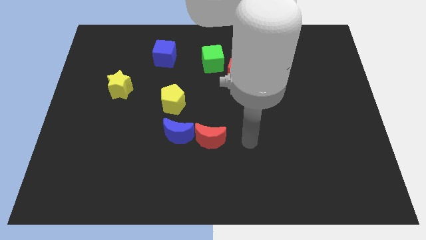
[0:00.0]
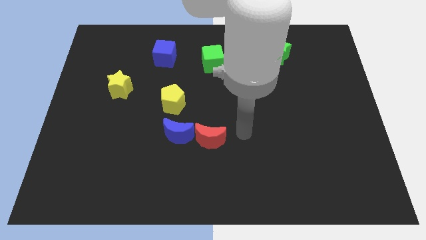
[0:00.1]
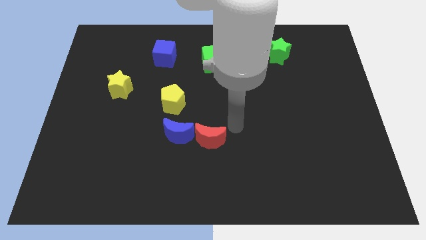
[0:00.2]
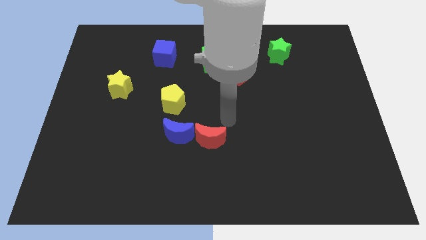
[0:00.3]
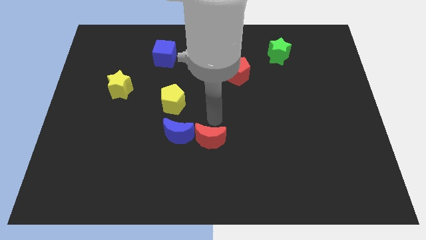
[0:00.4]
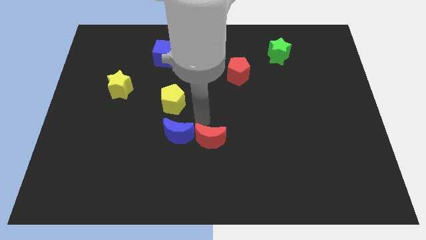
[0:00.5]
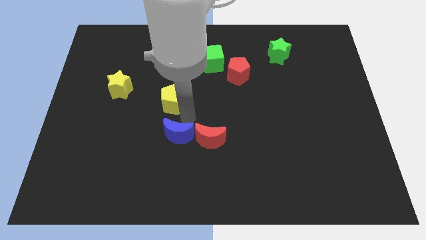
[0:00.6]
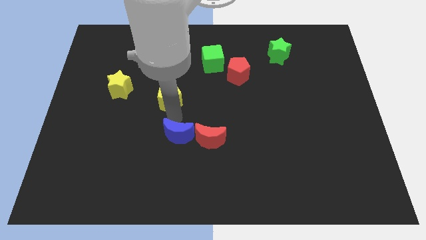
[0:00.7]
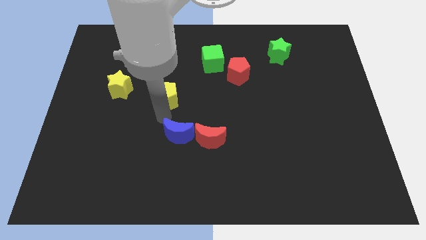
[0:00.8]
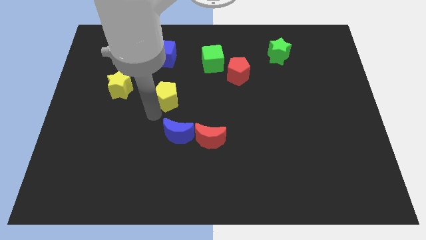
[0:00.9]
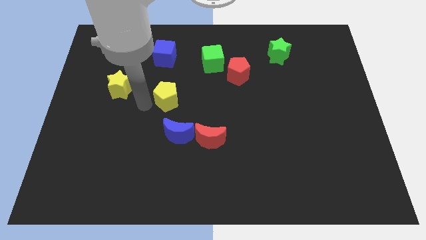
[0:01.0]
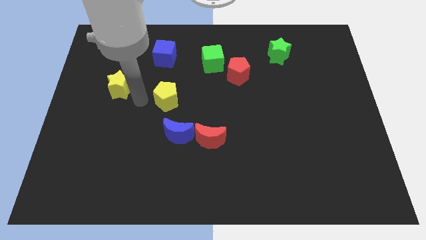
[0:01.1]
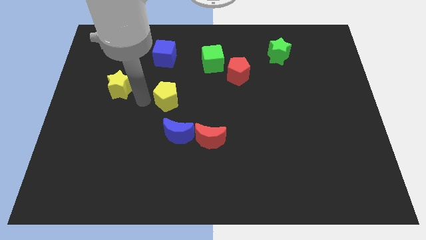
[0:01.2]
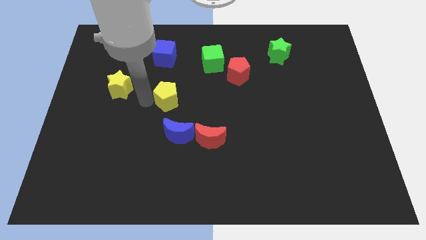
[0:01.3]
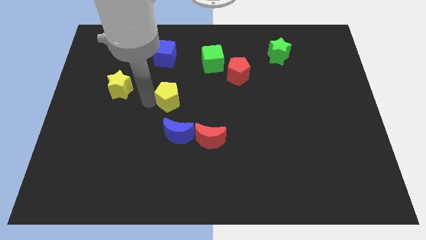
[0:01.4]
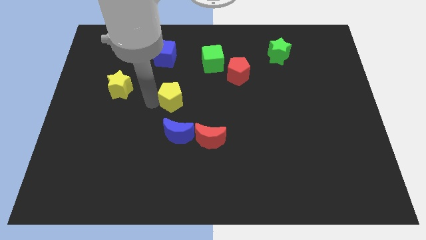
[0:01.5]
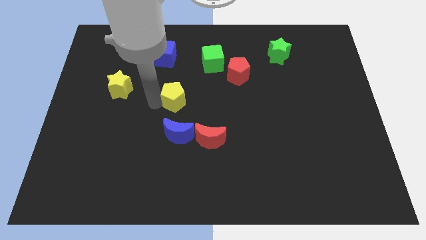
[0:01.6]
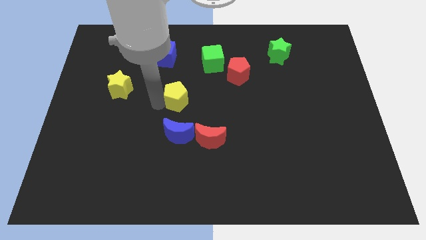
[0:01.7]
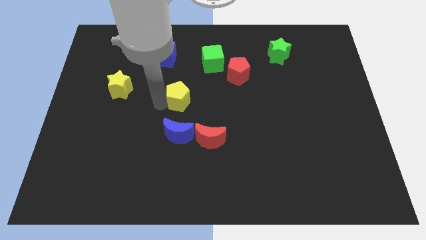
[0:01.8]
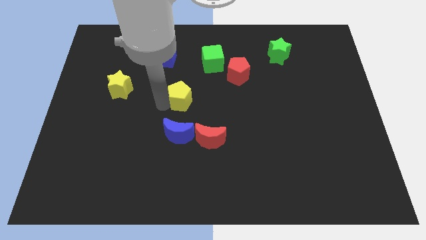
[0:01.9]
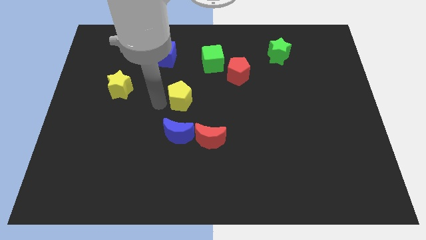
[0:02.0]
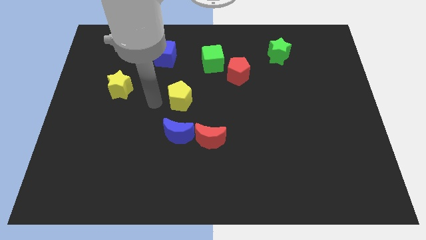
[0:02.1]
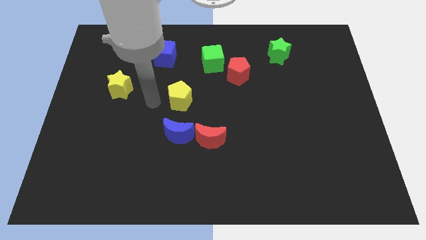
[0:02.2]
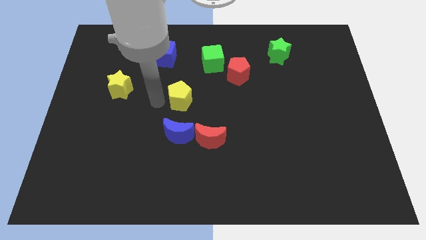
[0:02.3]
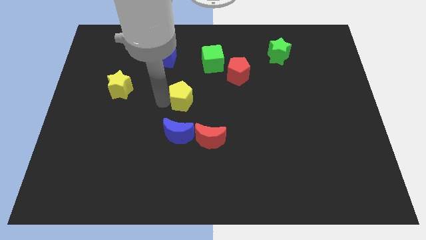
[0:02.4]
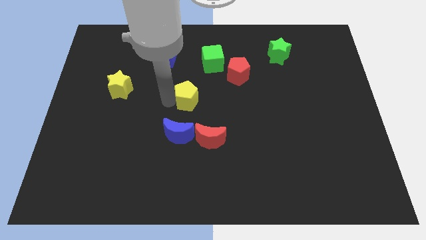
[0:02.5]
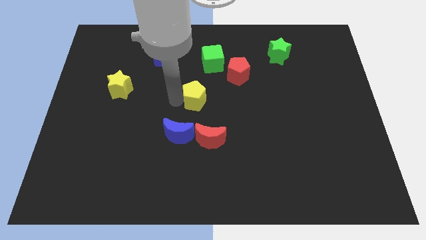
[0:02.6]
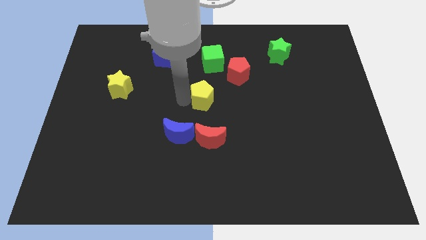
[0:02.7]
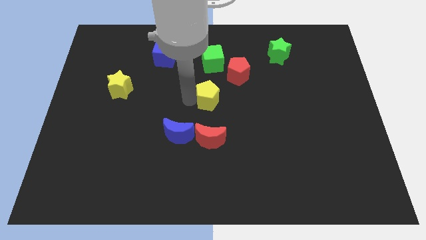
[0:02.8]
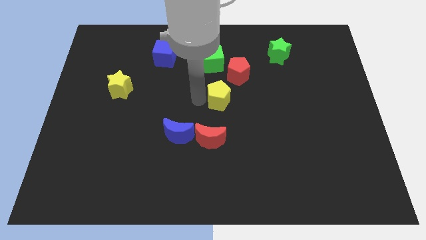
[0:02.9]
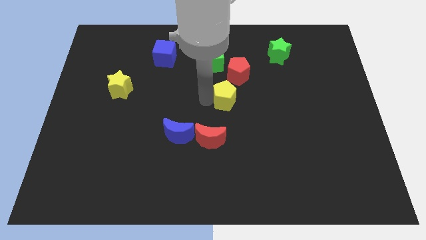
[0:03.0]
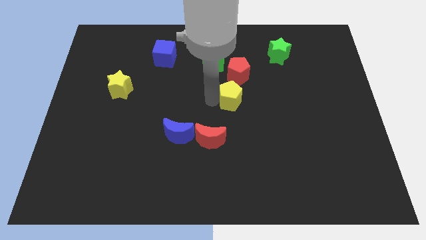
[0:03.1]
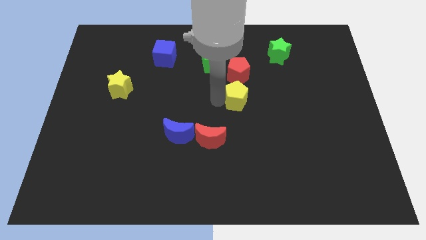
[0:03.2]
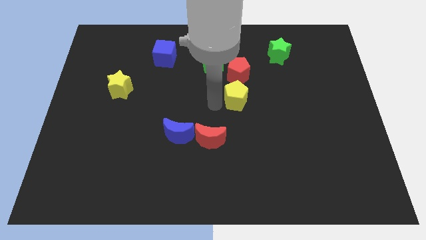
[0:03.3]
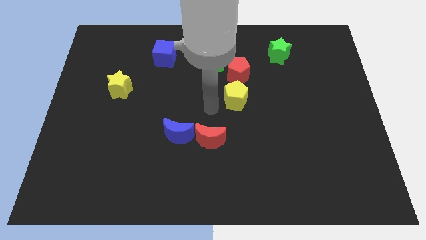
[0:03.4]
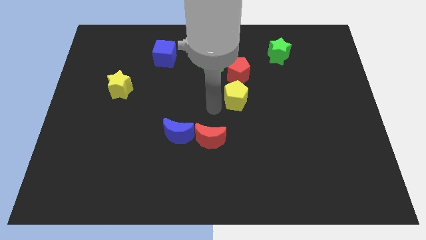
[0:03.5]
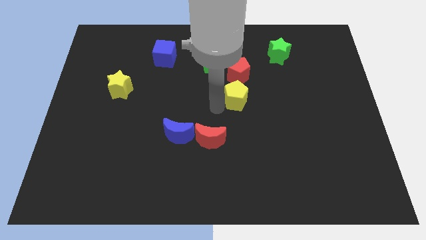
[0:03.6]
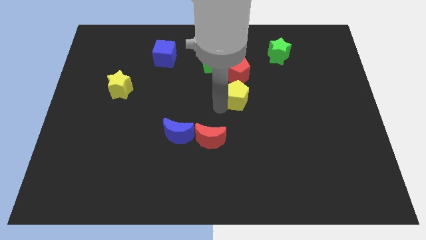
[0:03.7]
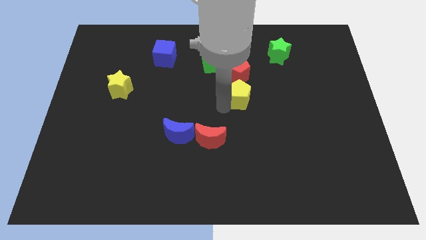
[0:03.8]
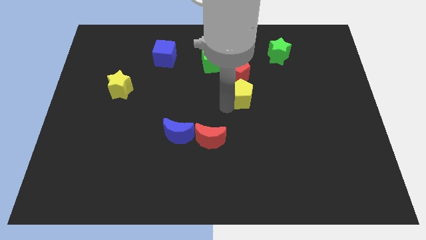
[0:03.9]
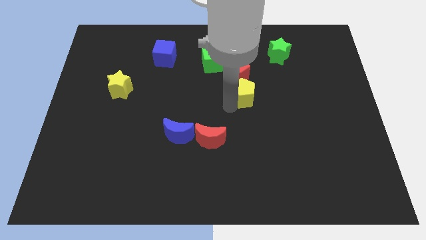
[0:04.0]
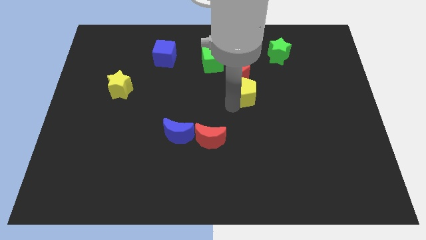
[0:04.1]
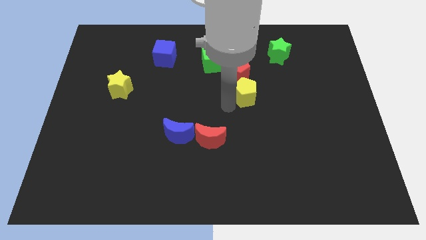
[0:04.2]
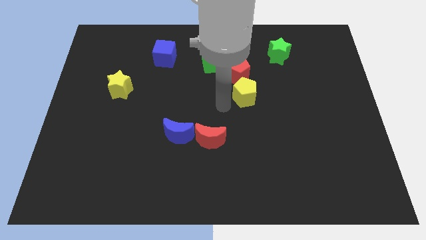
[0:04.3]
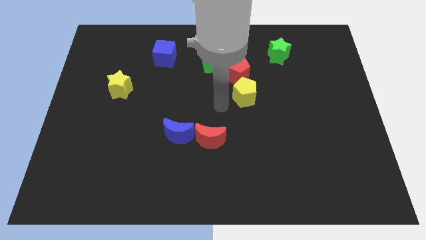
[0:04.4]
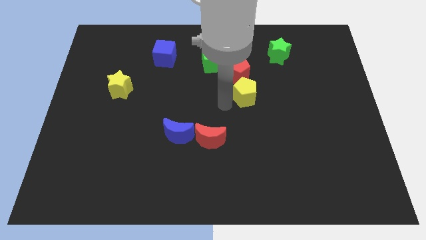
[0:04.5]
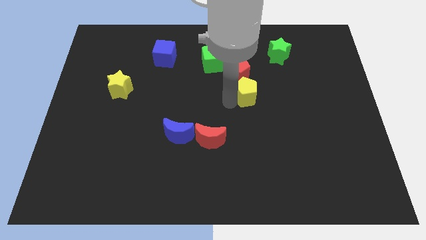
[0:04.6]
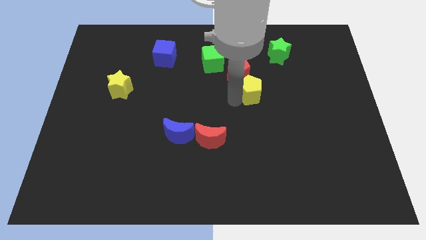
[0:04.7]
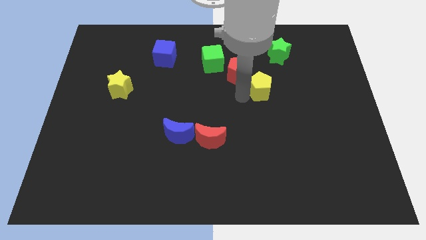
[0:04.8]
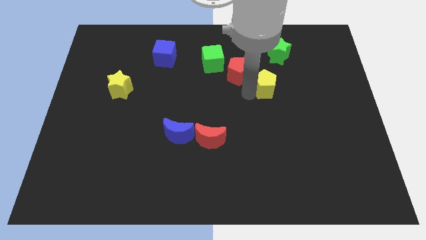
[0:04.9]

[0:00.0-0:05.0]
move the yellow pentagon to the bottom side of the green star

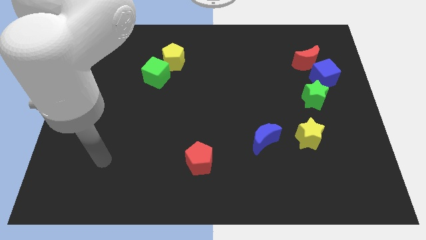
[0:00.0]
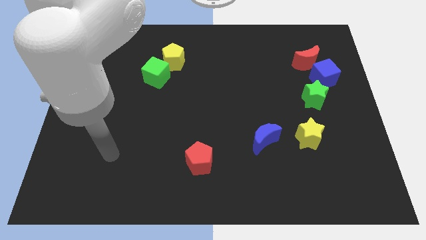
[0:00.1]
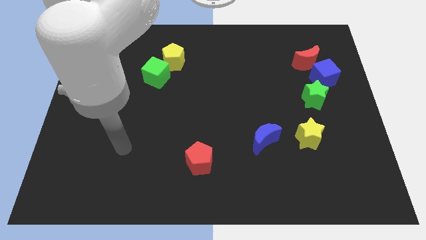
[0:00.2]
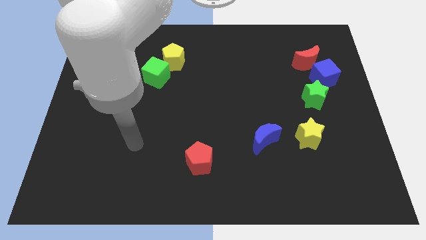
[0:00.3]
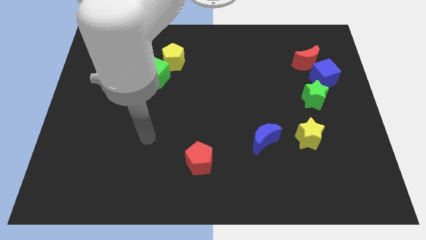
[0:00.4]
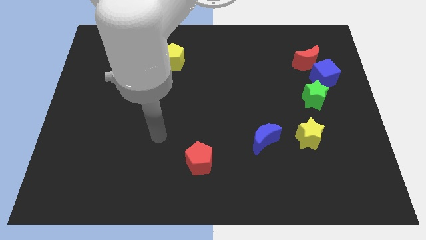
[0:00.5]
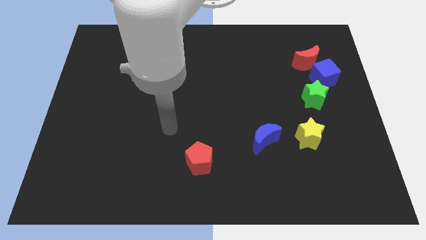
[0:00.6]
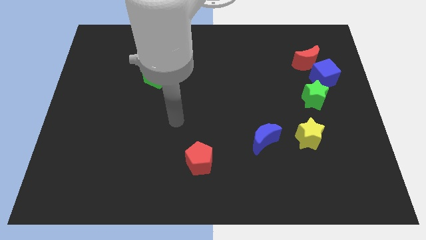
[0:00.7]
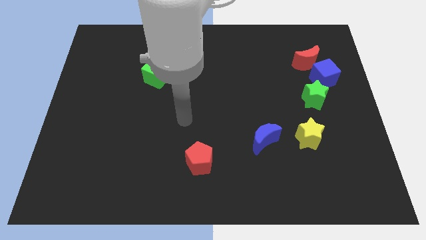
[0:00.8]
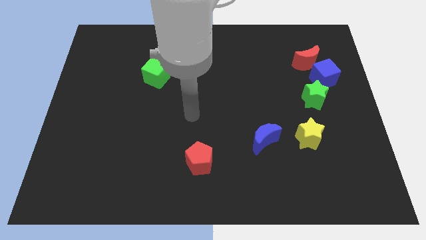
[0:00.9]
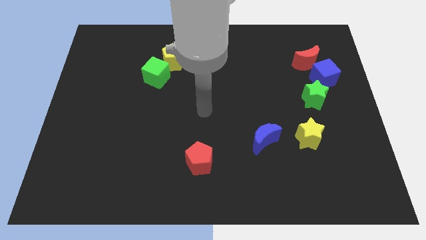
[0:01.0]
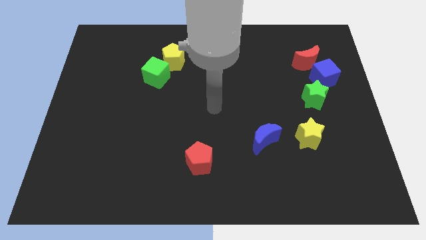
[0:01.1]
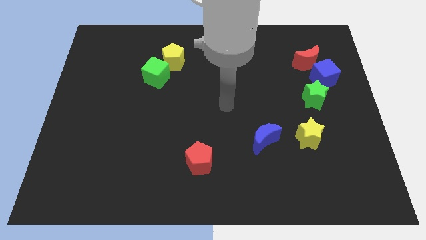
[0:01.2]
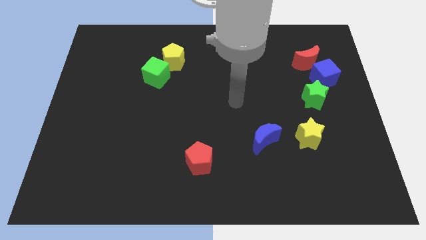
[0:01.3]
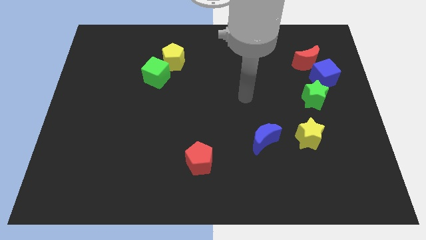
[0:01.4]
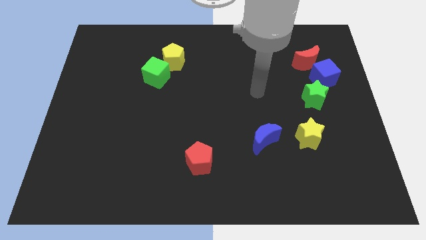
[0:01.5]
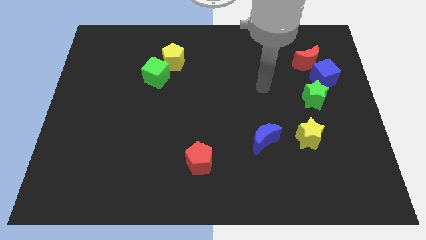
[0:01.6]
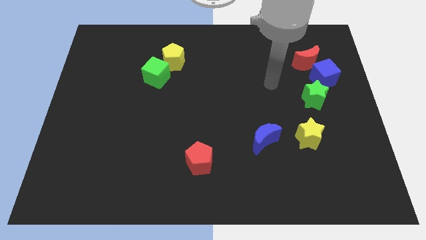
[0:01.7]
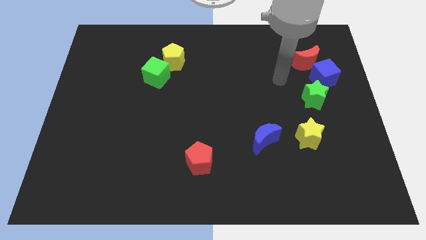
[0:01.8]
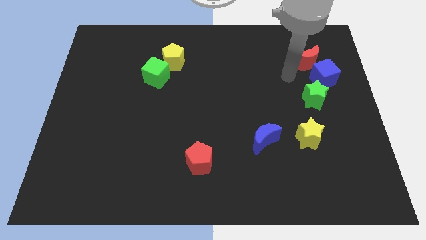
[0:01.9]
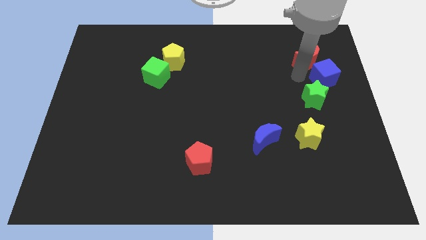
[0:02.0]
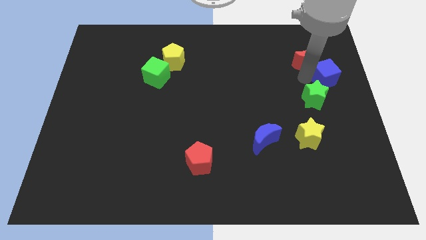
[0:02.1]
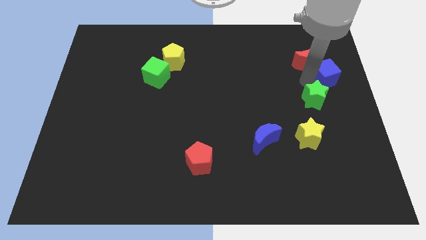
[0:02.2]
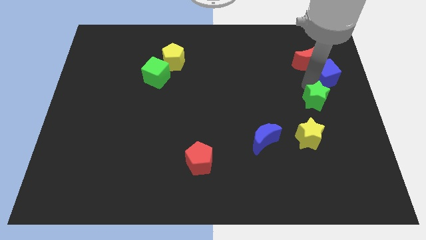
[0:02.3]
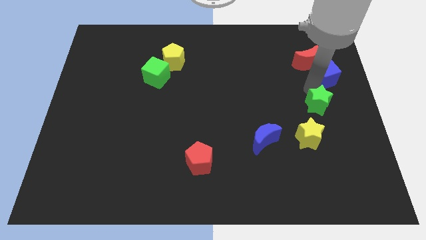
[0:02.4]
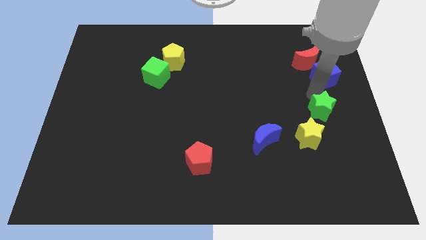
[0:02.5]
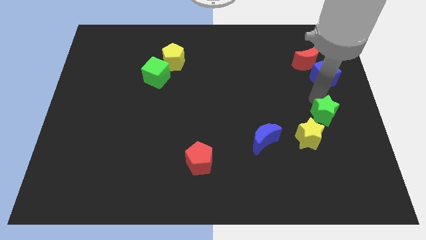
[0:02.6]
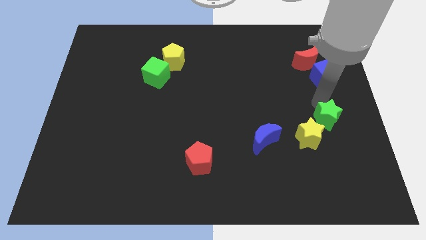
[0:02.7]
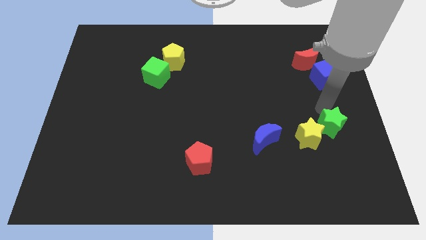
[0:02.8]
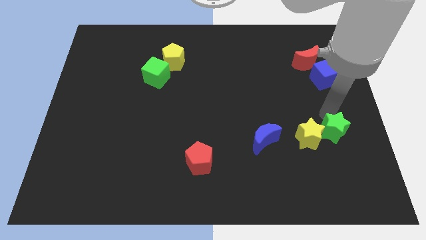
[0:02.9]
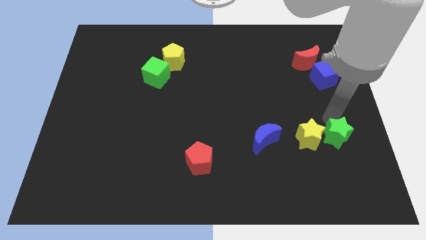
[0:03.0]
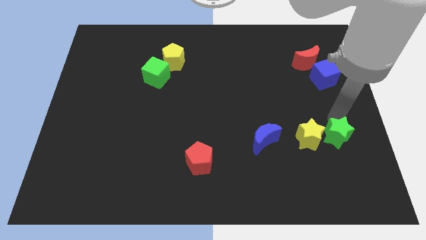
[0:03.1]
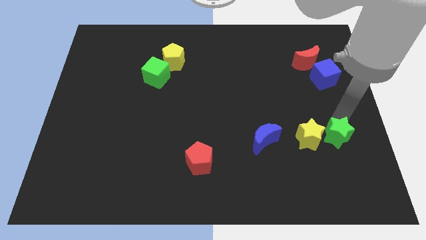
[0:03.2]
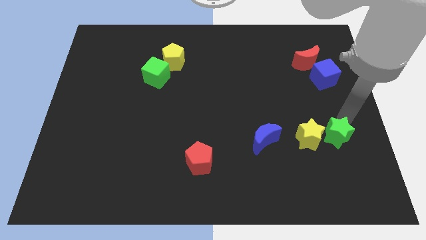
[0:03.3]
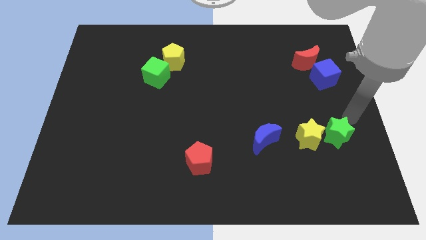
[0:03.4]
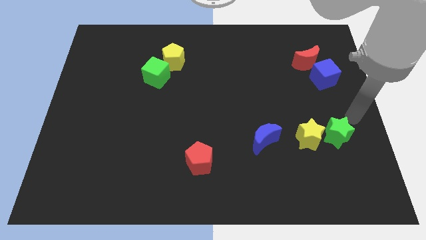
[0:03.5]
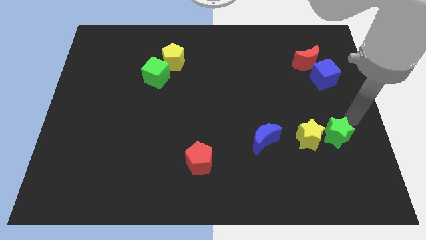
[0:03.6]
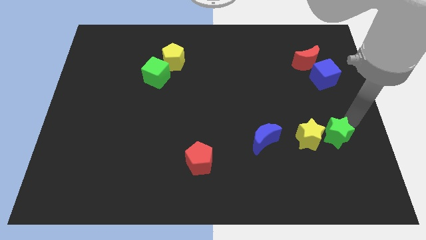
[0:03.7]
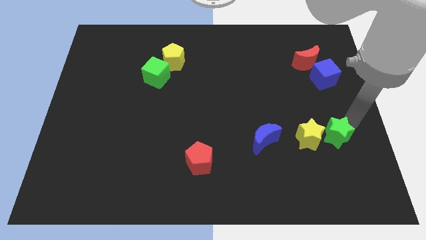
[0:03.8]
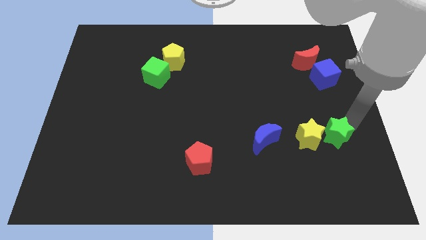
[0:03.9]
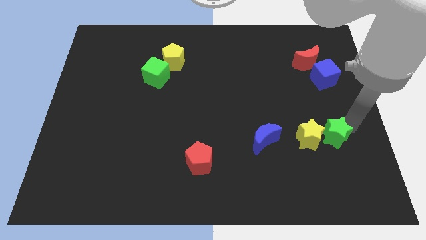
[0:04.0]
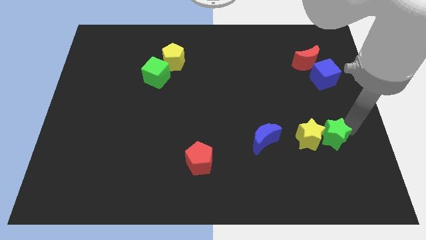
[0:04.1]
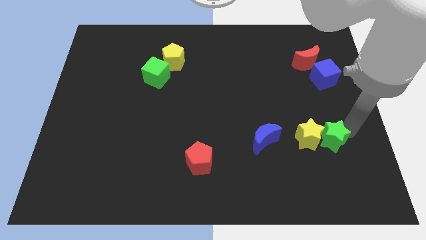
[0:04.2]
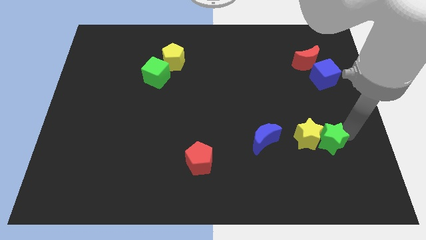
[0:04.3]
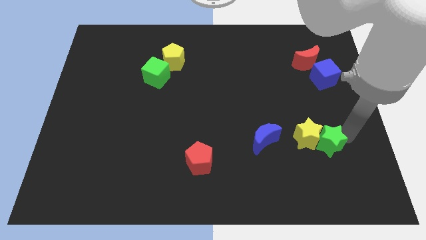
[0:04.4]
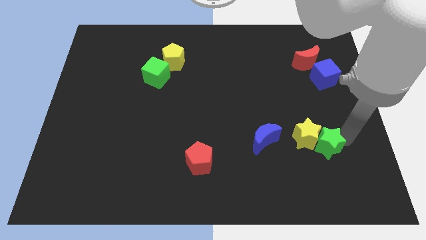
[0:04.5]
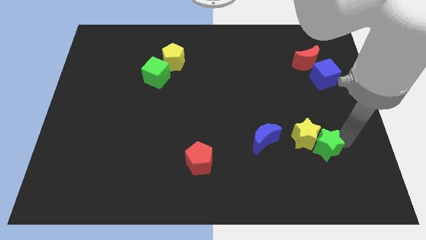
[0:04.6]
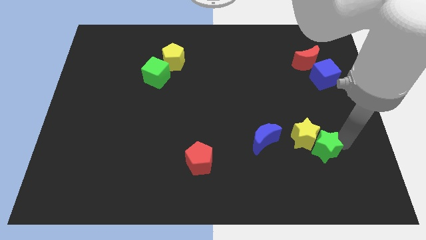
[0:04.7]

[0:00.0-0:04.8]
push the green star to the bottom of the yellow star
